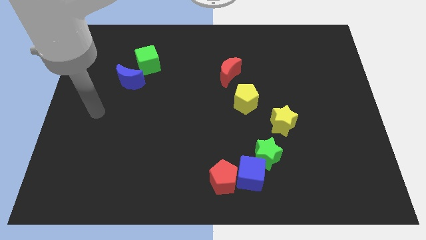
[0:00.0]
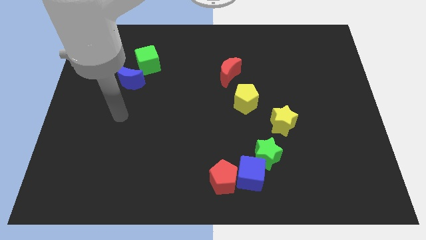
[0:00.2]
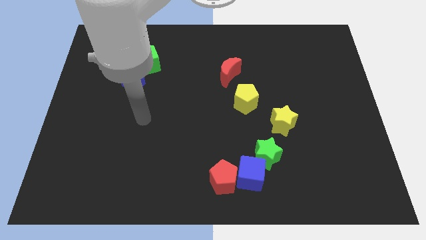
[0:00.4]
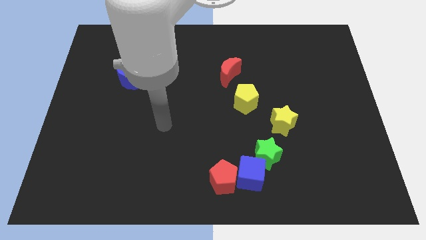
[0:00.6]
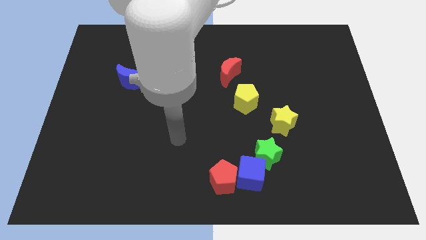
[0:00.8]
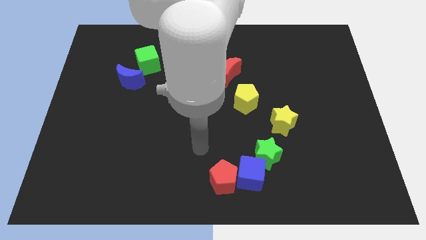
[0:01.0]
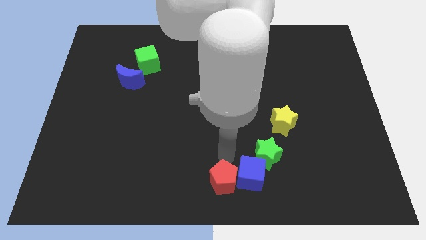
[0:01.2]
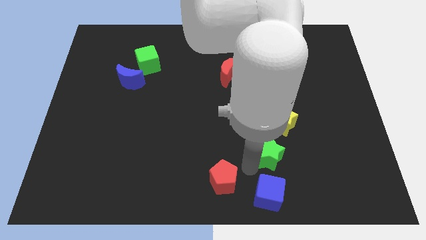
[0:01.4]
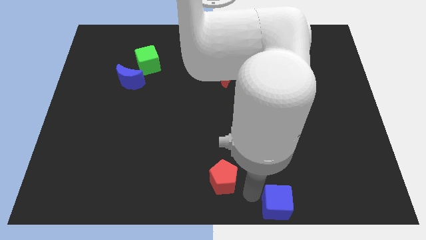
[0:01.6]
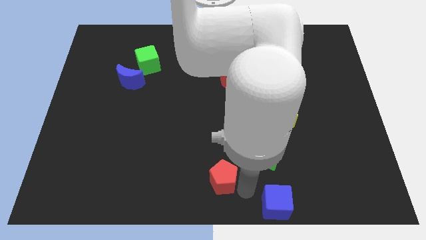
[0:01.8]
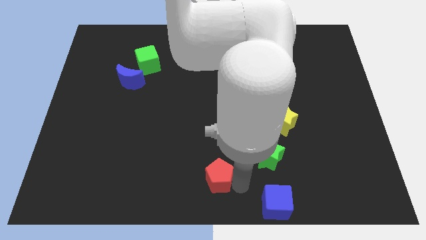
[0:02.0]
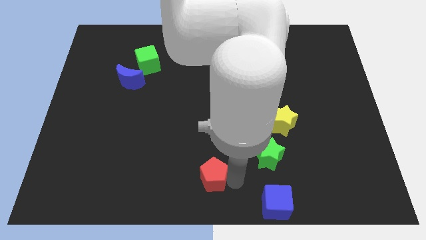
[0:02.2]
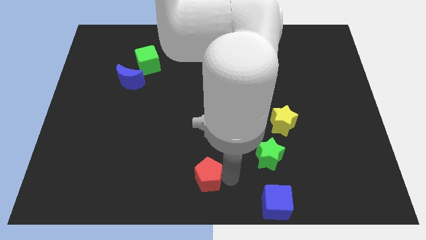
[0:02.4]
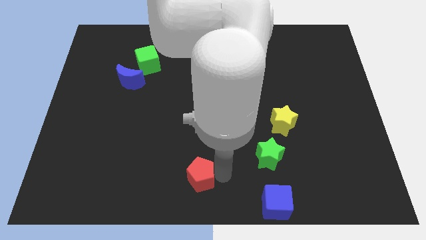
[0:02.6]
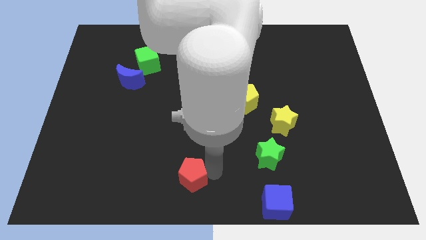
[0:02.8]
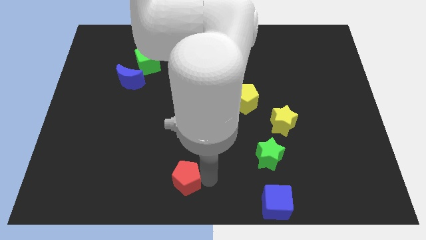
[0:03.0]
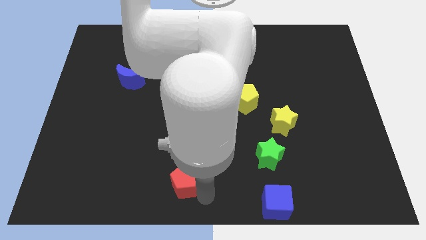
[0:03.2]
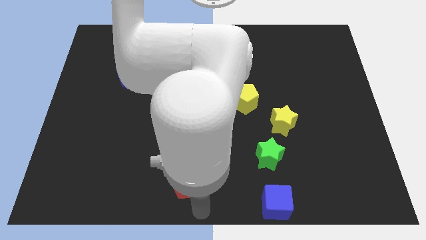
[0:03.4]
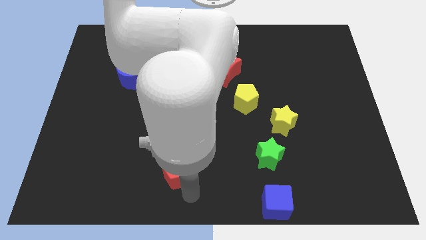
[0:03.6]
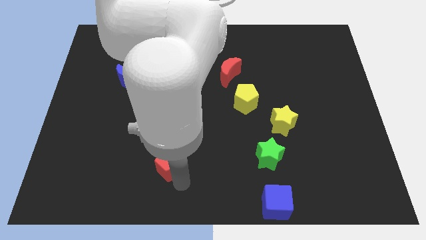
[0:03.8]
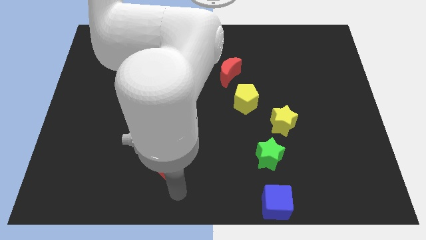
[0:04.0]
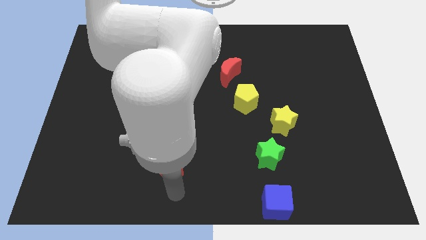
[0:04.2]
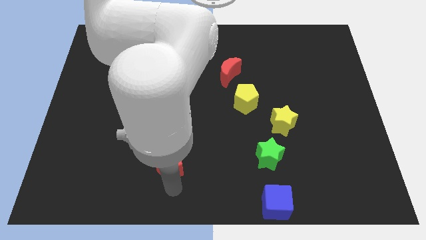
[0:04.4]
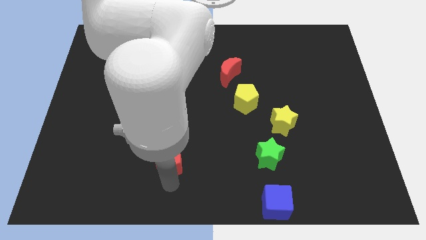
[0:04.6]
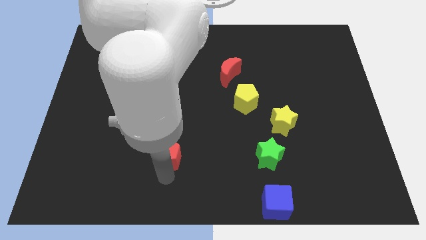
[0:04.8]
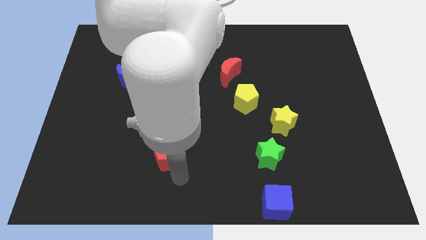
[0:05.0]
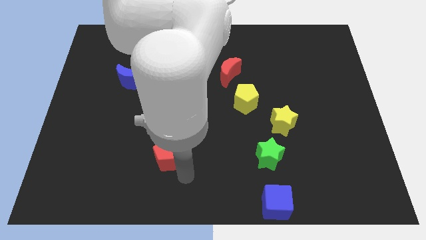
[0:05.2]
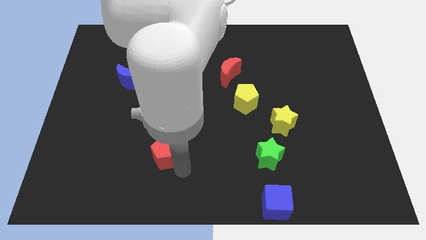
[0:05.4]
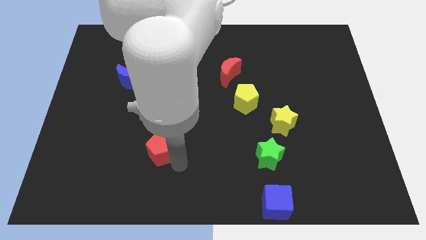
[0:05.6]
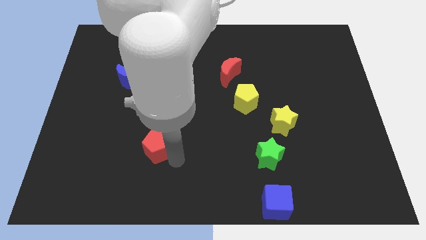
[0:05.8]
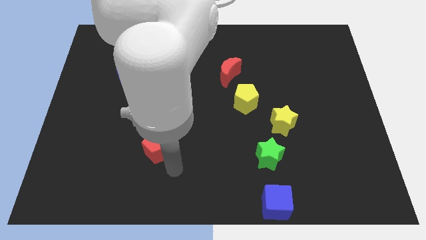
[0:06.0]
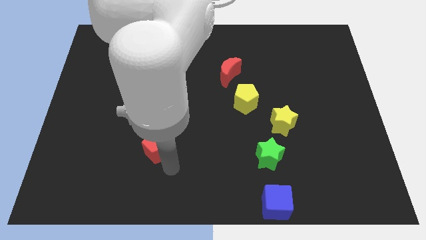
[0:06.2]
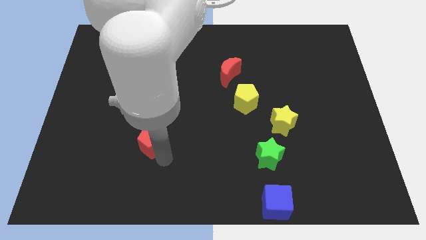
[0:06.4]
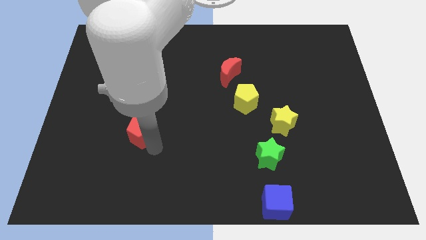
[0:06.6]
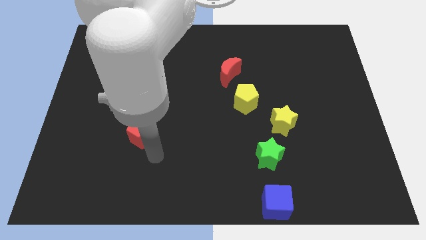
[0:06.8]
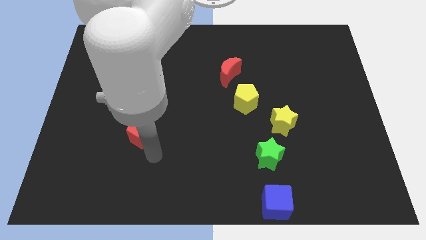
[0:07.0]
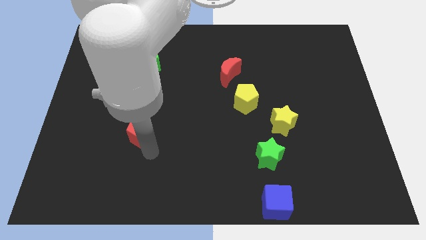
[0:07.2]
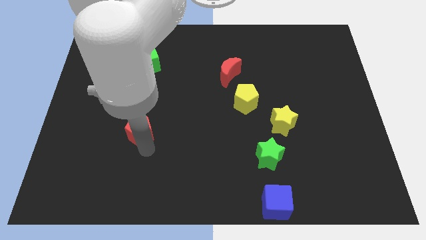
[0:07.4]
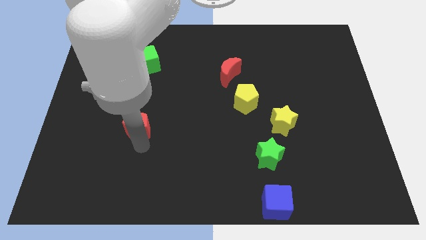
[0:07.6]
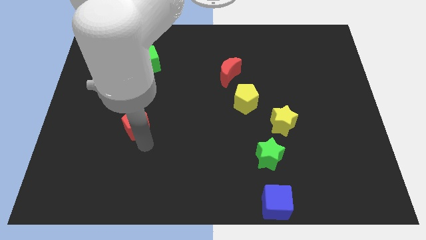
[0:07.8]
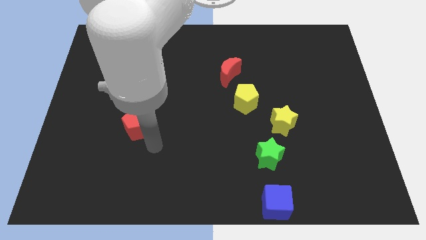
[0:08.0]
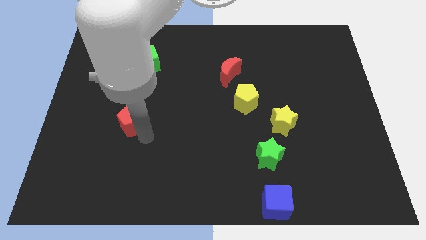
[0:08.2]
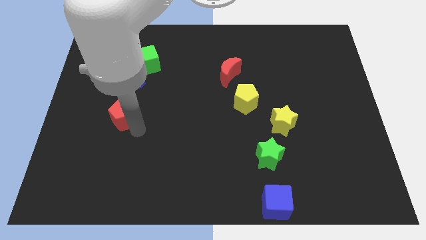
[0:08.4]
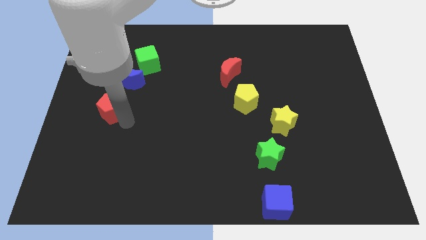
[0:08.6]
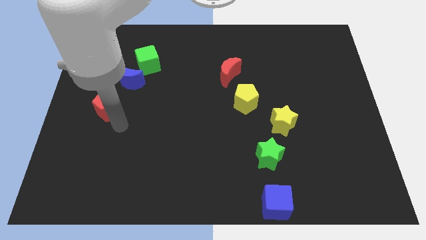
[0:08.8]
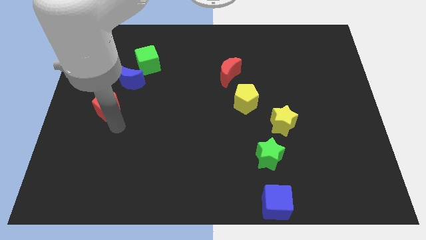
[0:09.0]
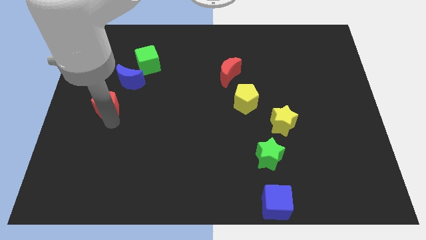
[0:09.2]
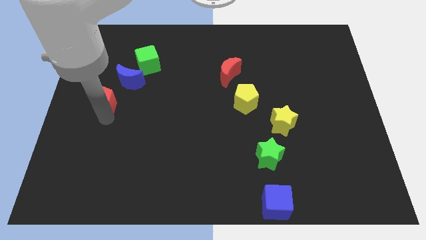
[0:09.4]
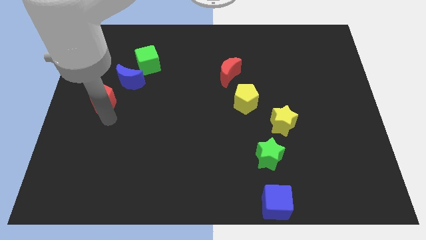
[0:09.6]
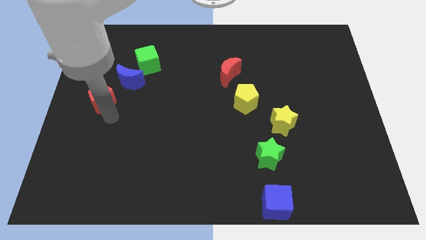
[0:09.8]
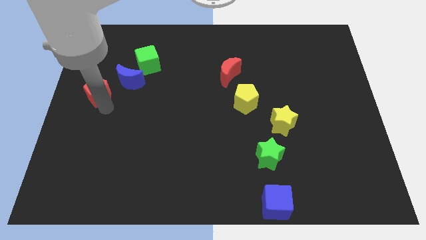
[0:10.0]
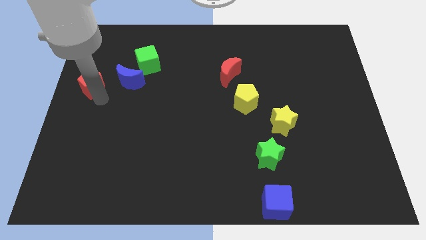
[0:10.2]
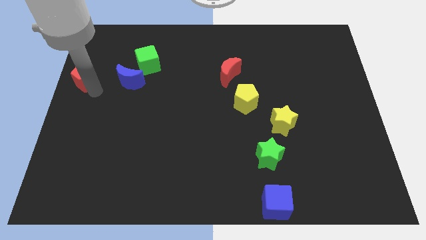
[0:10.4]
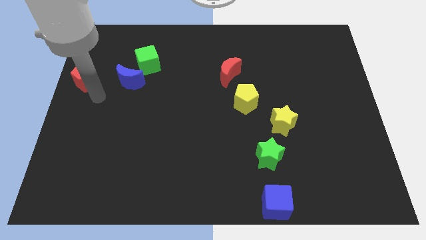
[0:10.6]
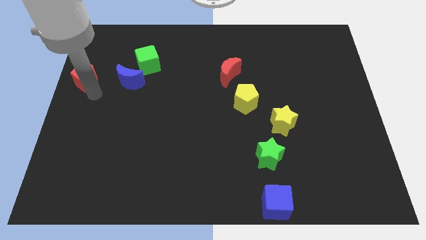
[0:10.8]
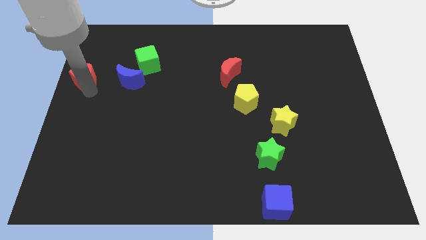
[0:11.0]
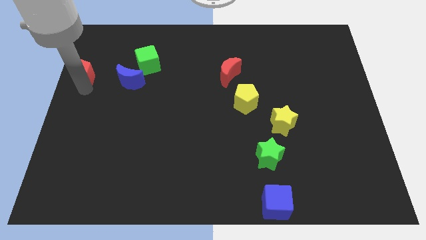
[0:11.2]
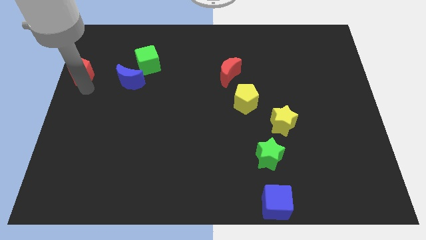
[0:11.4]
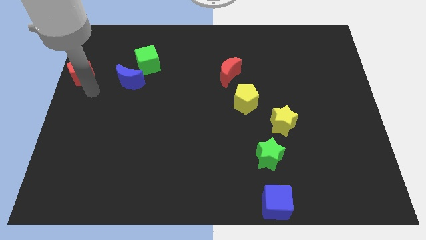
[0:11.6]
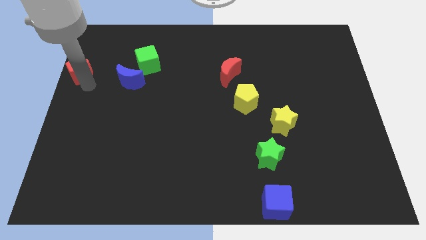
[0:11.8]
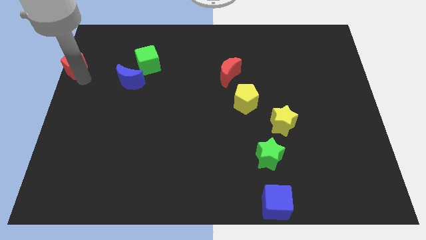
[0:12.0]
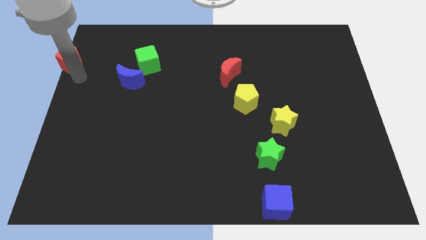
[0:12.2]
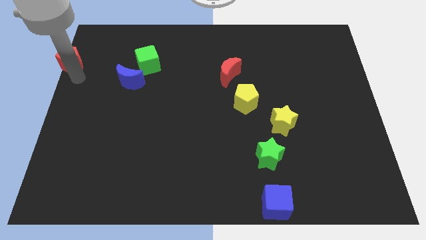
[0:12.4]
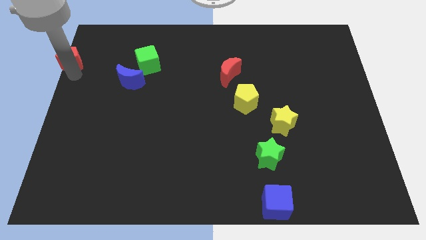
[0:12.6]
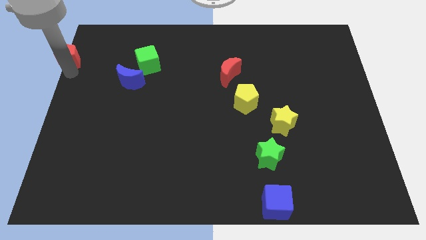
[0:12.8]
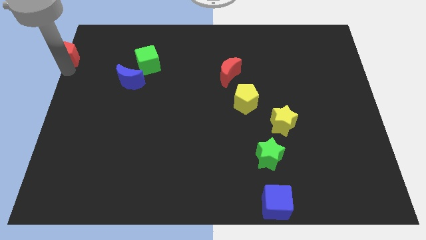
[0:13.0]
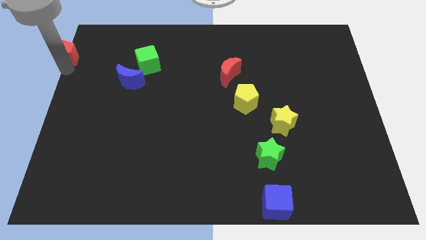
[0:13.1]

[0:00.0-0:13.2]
slide the red pentagon to the top left of the board

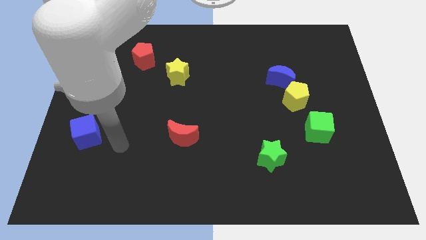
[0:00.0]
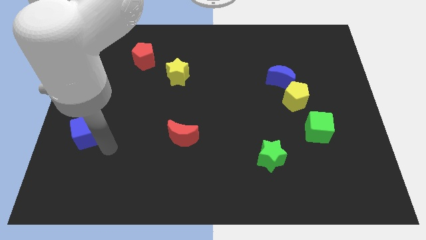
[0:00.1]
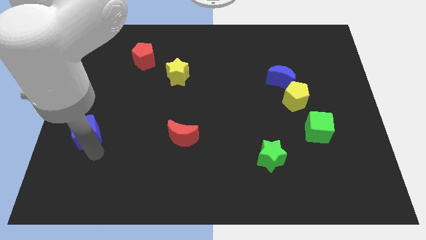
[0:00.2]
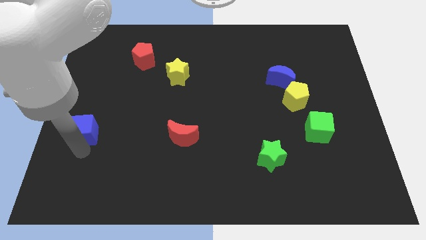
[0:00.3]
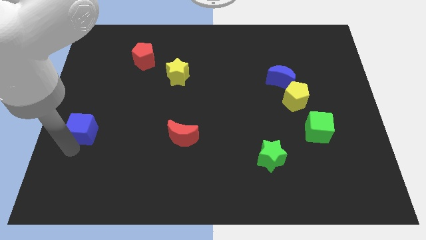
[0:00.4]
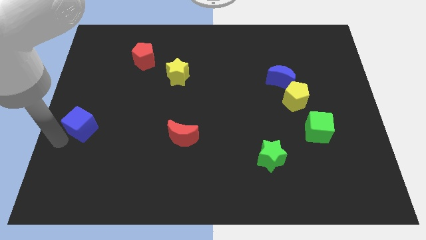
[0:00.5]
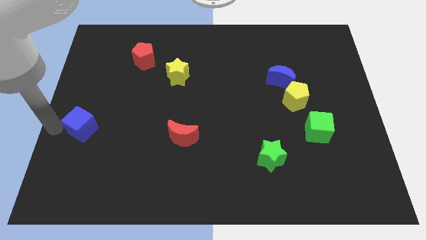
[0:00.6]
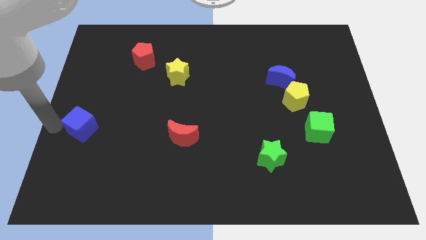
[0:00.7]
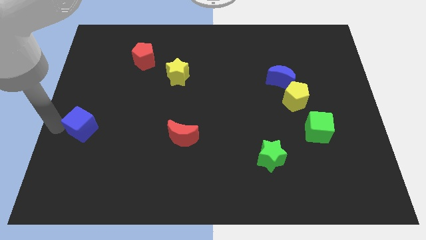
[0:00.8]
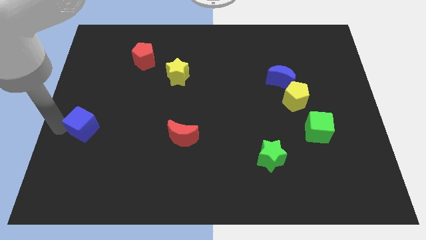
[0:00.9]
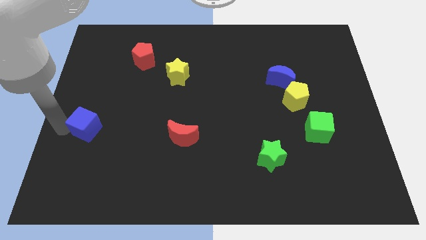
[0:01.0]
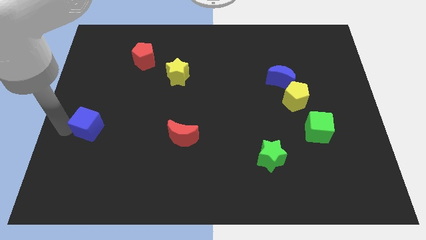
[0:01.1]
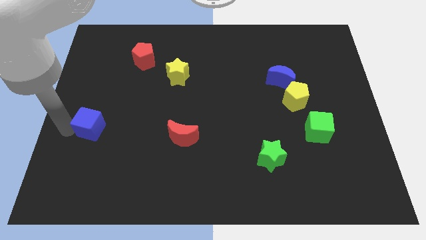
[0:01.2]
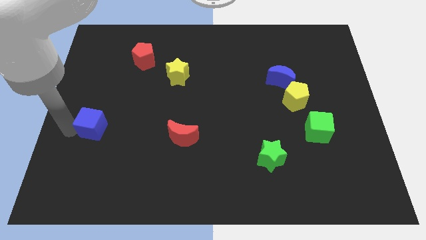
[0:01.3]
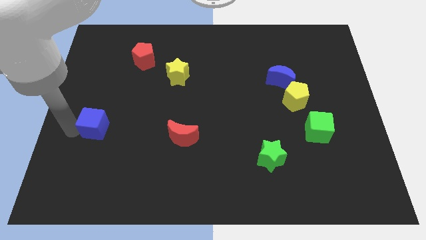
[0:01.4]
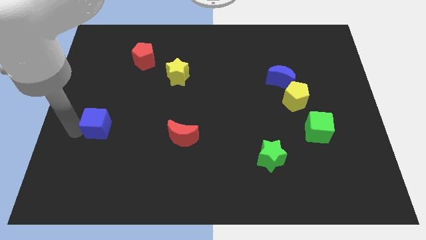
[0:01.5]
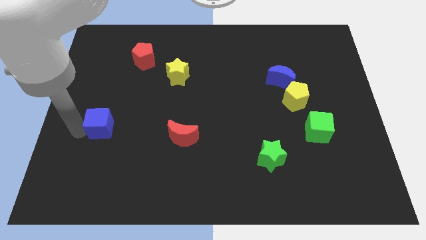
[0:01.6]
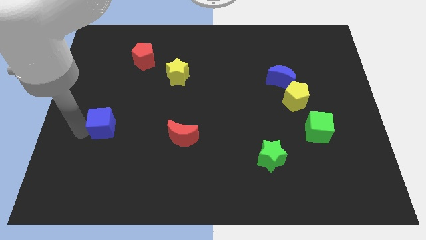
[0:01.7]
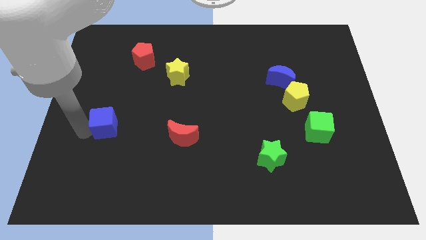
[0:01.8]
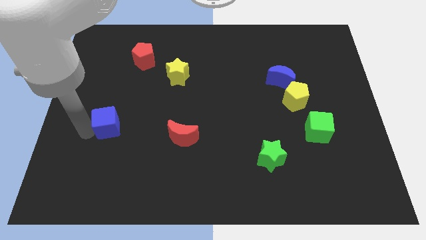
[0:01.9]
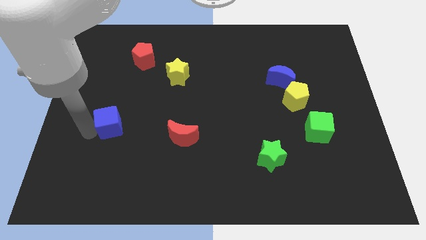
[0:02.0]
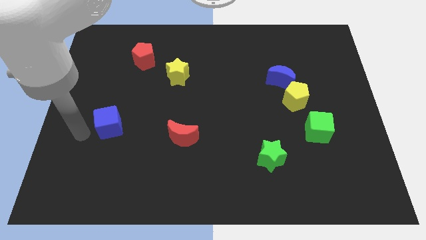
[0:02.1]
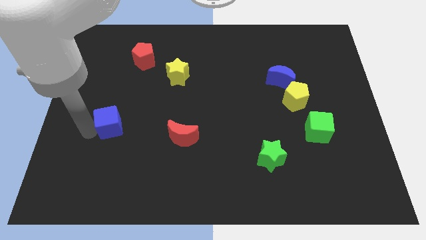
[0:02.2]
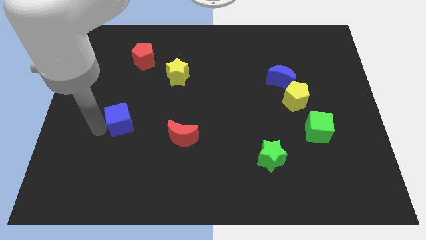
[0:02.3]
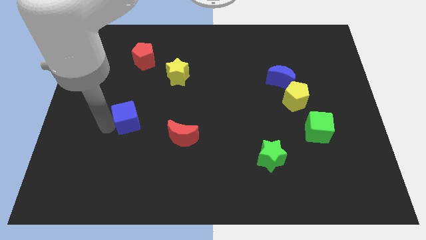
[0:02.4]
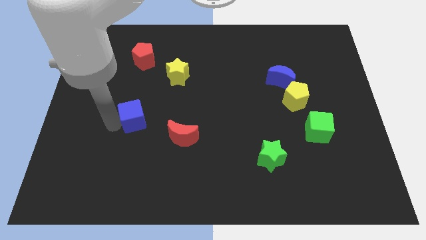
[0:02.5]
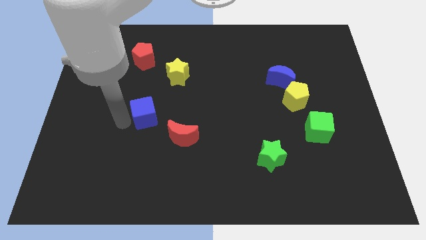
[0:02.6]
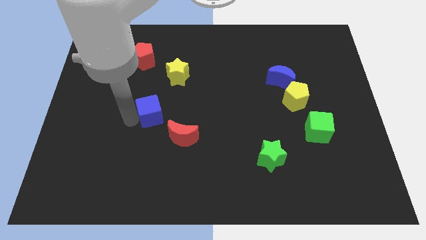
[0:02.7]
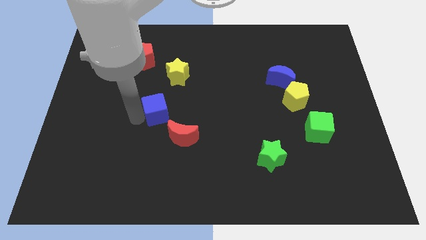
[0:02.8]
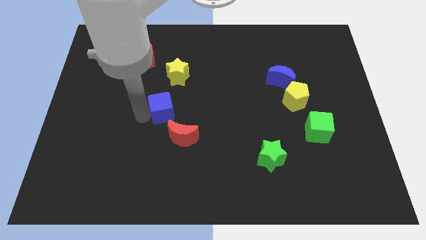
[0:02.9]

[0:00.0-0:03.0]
slide the blue cube to the middle of the board
